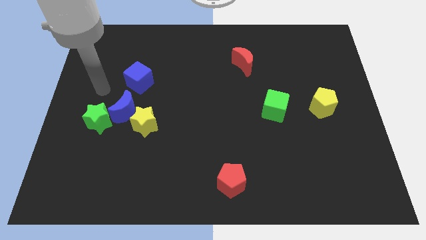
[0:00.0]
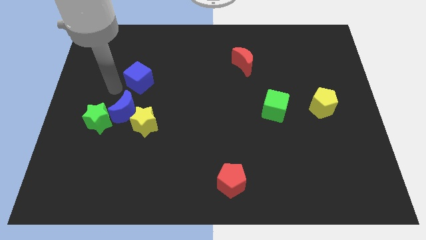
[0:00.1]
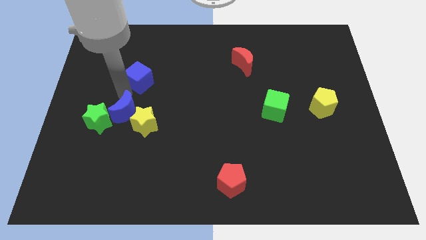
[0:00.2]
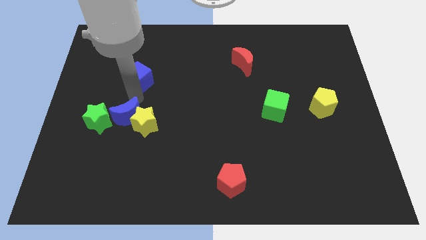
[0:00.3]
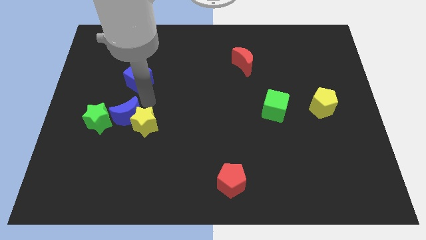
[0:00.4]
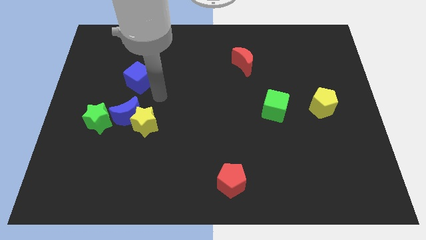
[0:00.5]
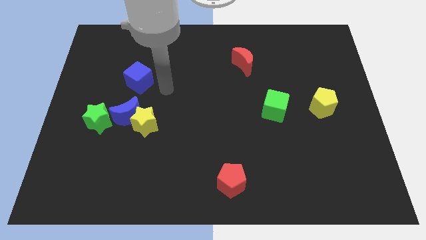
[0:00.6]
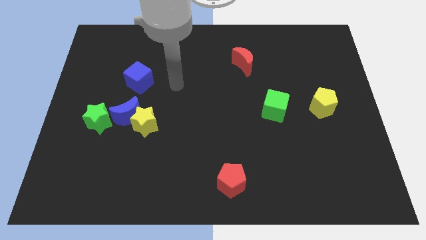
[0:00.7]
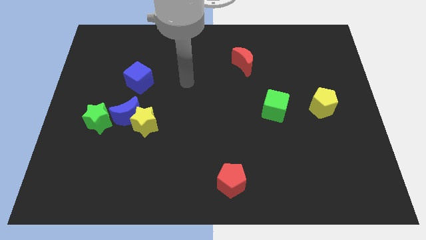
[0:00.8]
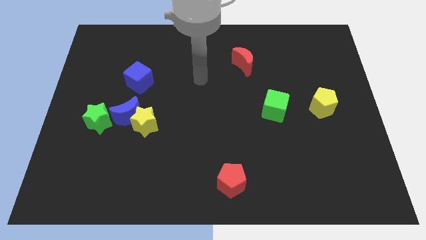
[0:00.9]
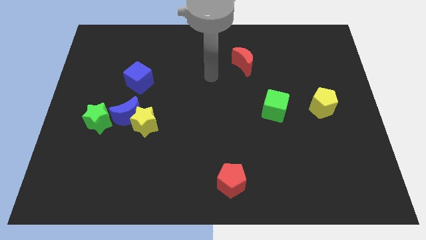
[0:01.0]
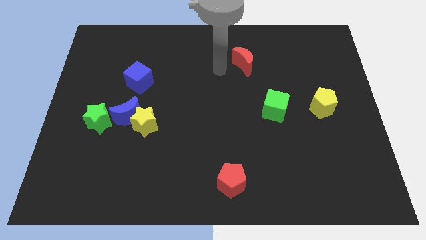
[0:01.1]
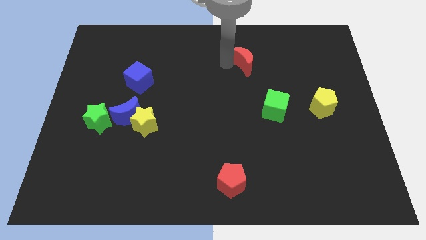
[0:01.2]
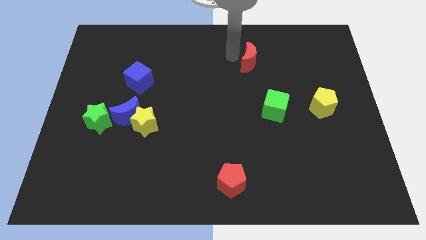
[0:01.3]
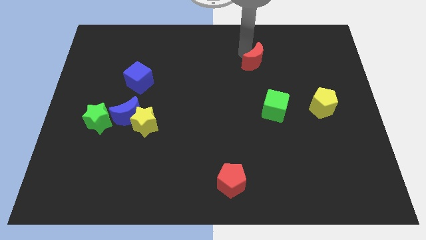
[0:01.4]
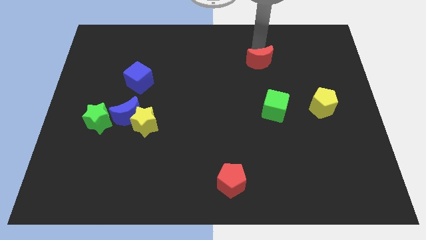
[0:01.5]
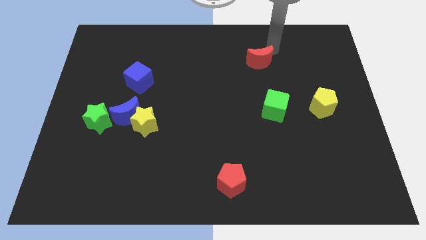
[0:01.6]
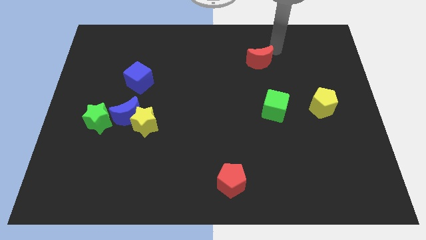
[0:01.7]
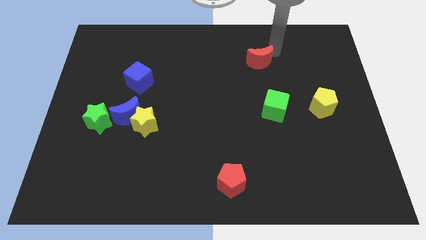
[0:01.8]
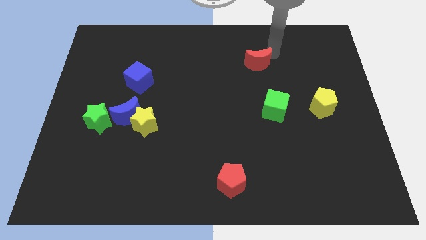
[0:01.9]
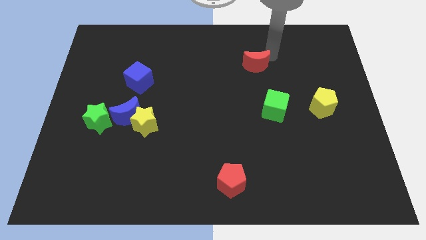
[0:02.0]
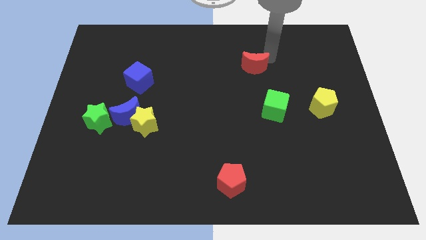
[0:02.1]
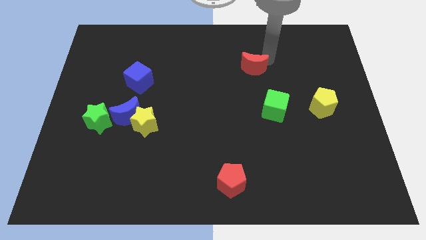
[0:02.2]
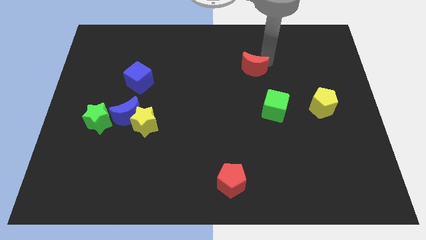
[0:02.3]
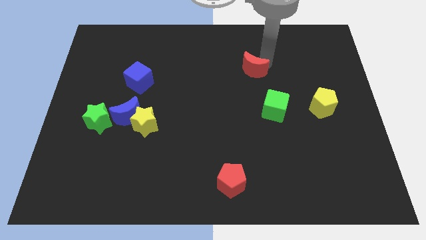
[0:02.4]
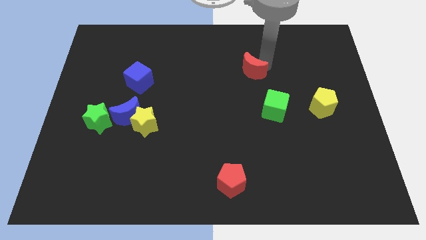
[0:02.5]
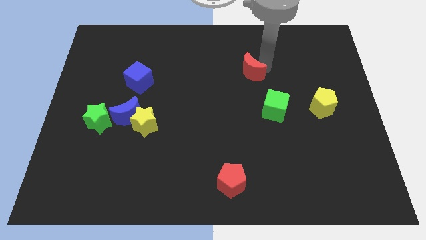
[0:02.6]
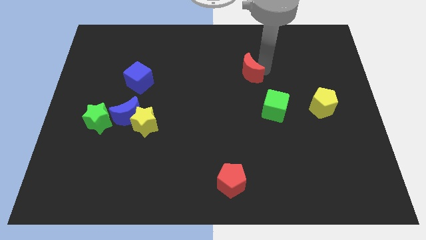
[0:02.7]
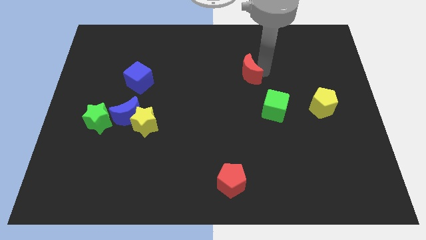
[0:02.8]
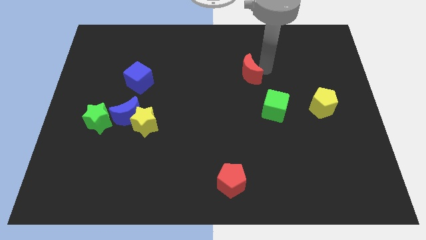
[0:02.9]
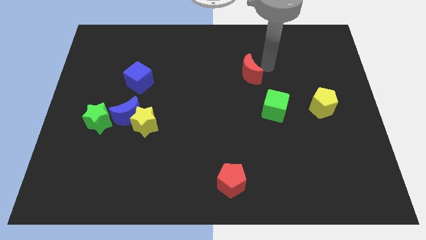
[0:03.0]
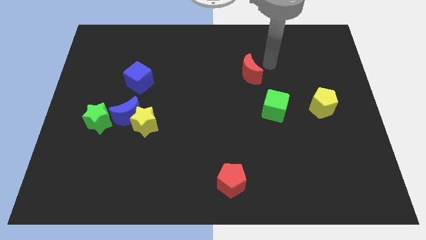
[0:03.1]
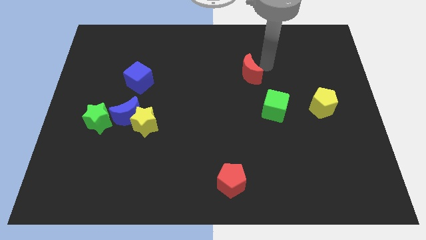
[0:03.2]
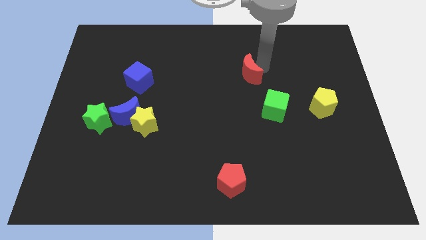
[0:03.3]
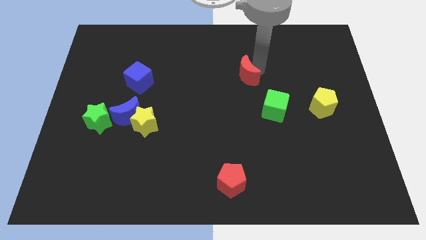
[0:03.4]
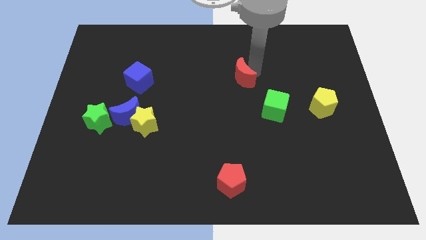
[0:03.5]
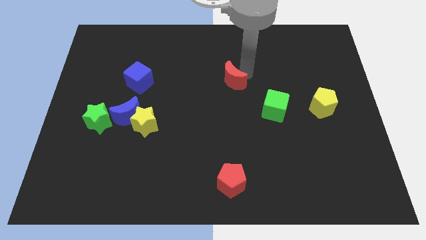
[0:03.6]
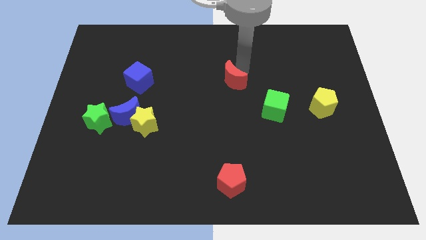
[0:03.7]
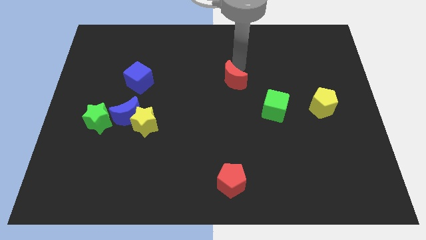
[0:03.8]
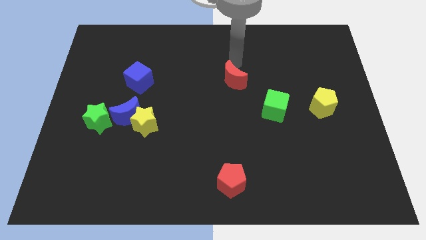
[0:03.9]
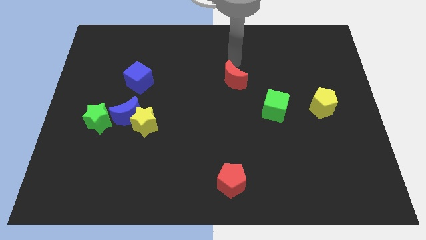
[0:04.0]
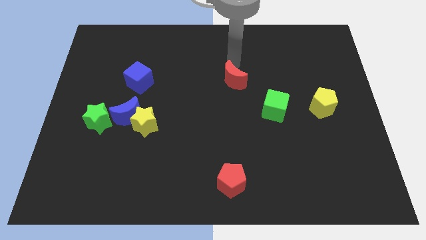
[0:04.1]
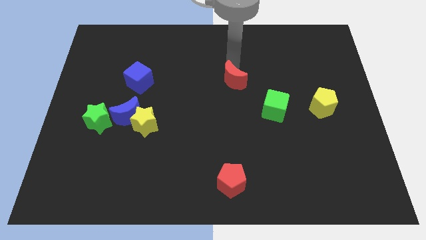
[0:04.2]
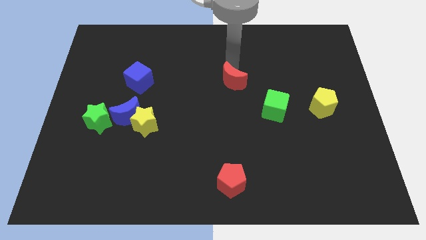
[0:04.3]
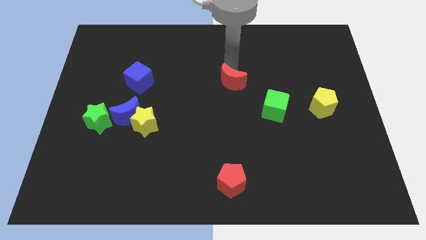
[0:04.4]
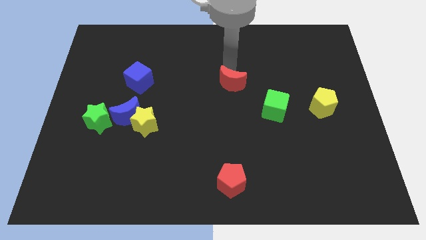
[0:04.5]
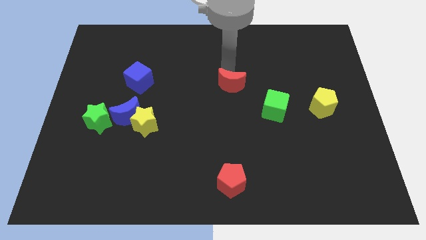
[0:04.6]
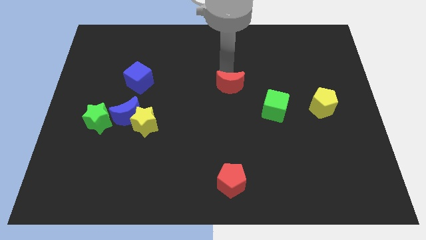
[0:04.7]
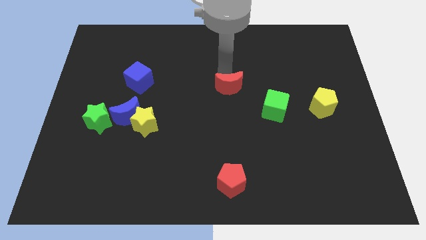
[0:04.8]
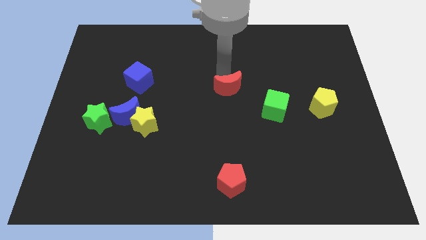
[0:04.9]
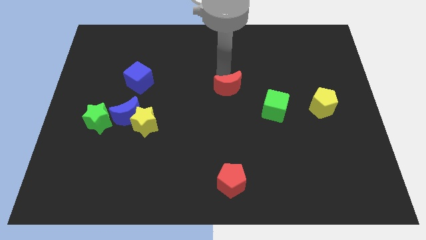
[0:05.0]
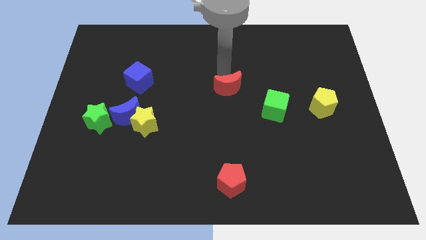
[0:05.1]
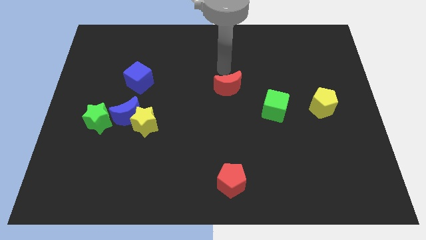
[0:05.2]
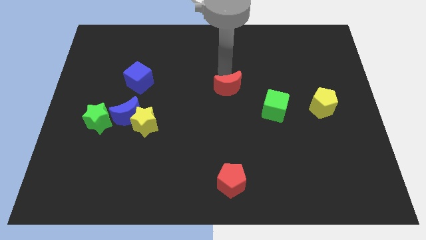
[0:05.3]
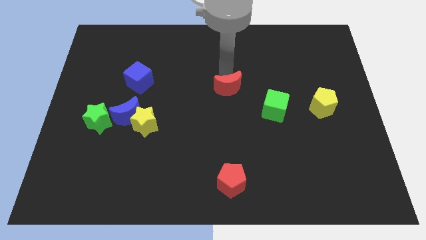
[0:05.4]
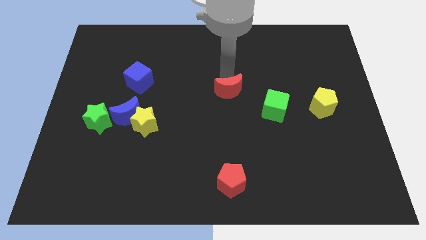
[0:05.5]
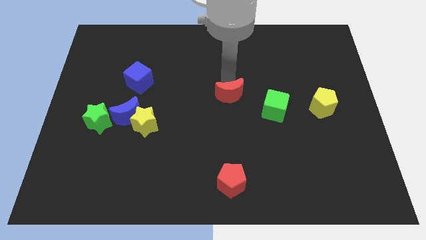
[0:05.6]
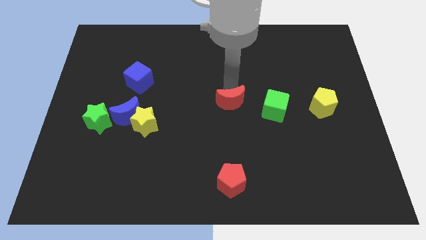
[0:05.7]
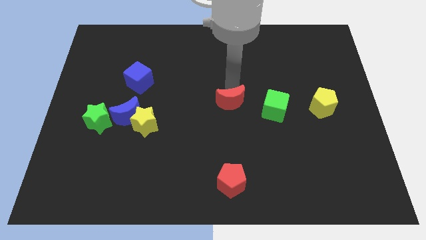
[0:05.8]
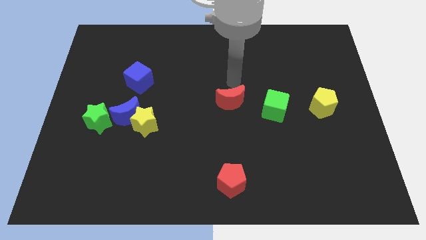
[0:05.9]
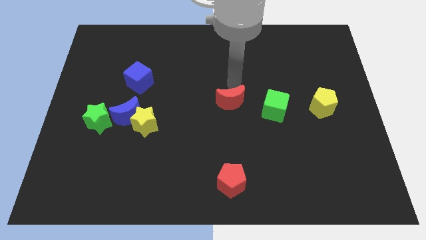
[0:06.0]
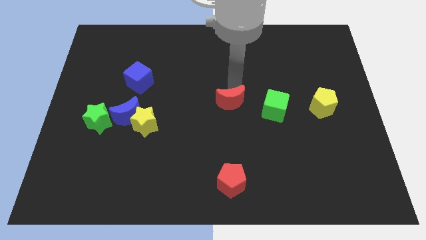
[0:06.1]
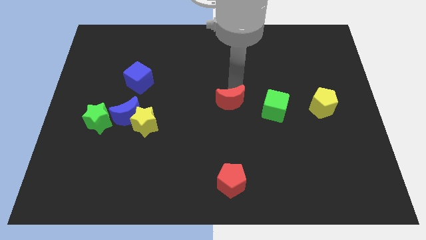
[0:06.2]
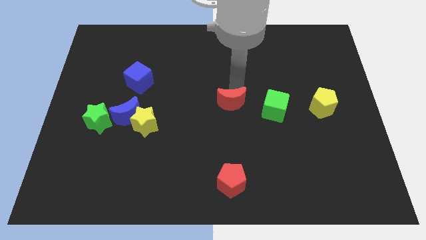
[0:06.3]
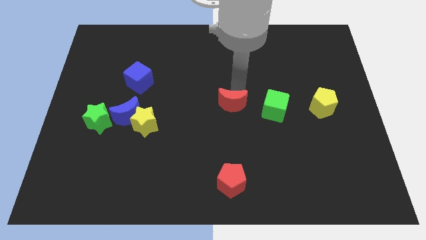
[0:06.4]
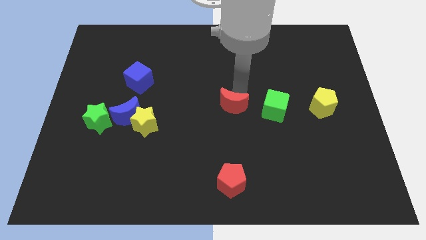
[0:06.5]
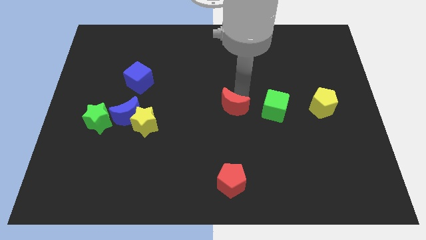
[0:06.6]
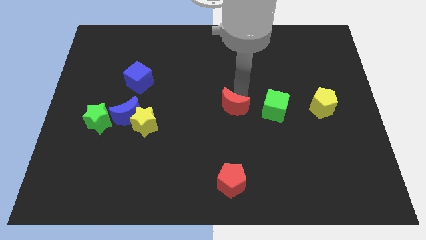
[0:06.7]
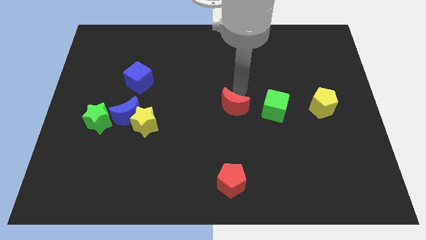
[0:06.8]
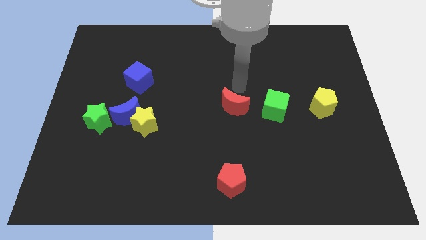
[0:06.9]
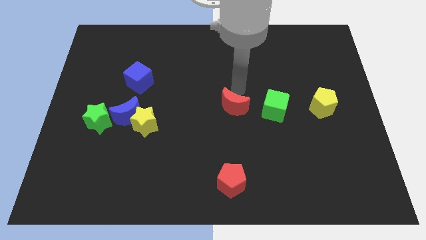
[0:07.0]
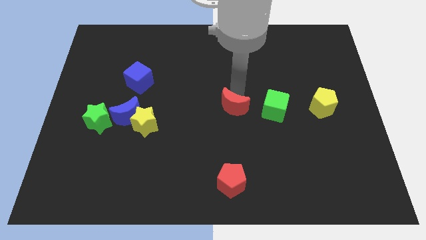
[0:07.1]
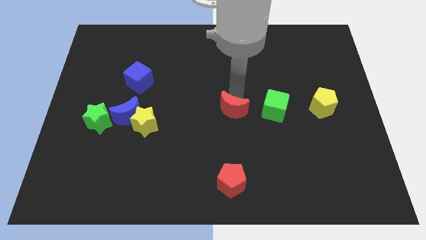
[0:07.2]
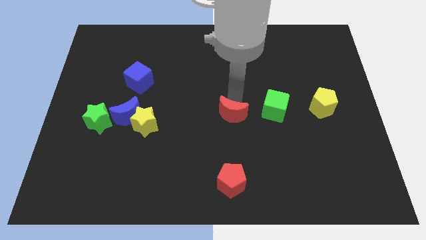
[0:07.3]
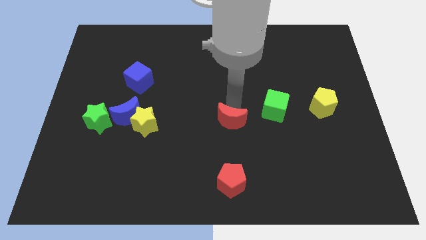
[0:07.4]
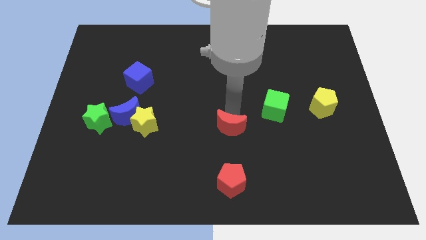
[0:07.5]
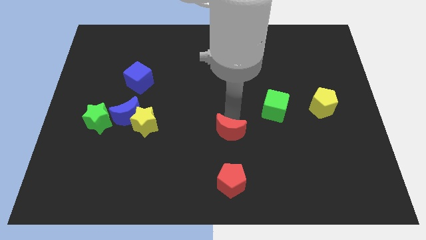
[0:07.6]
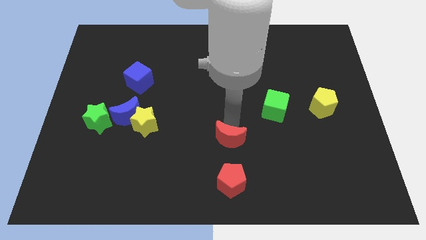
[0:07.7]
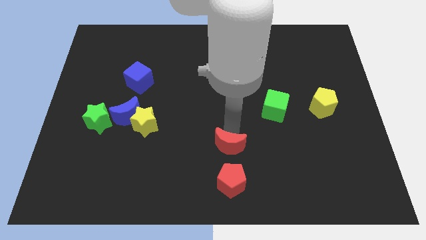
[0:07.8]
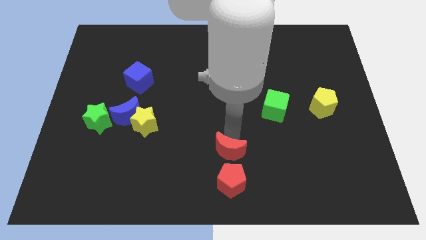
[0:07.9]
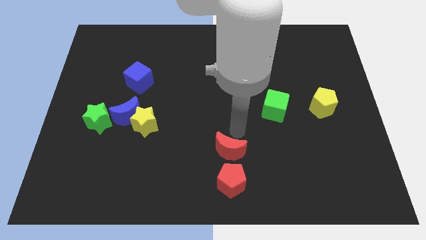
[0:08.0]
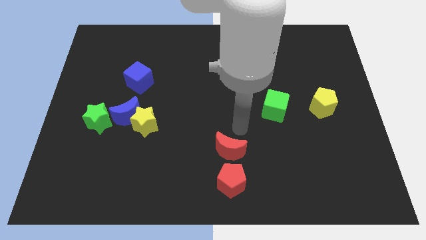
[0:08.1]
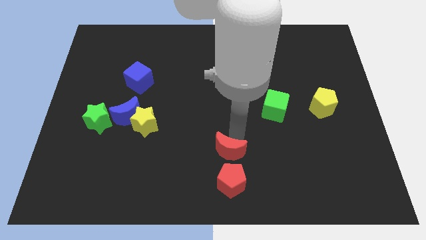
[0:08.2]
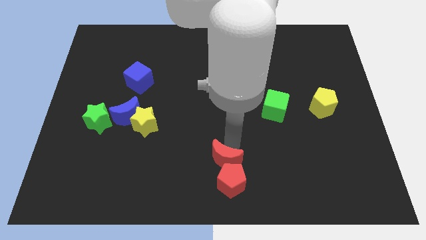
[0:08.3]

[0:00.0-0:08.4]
push the red moon to the bottom side
